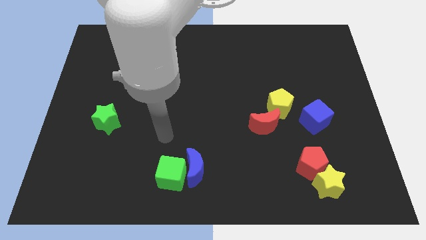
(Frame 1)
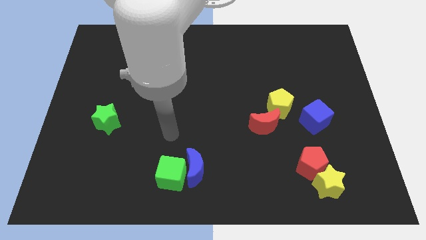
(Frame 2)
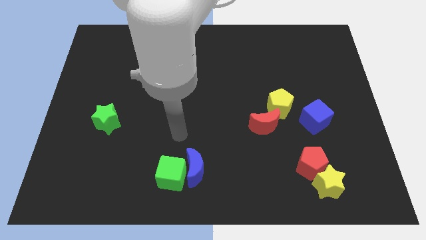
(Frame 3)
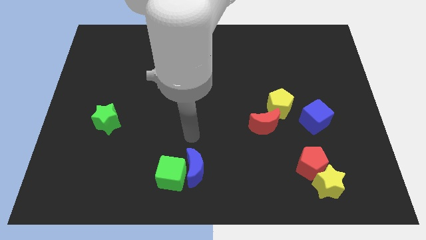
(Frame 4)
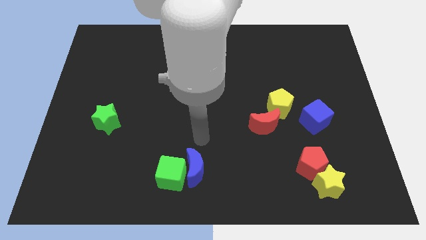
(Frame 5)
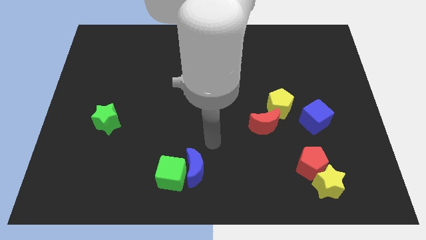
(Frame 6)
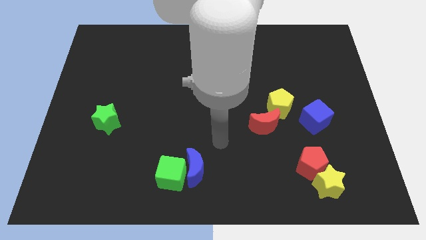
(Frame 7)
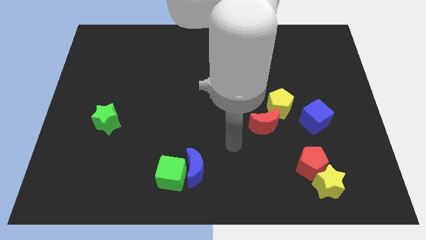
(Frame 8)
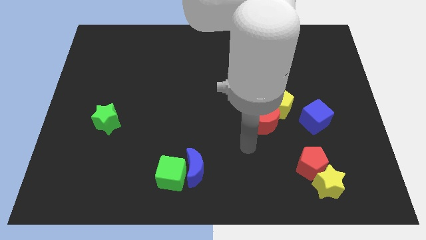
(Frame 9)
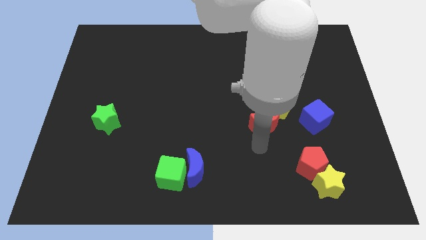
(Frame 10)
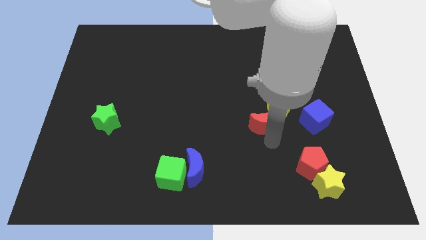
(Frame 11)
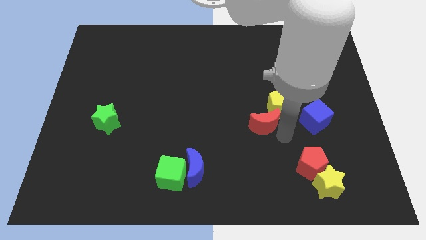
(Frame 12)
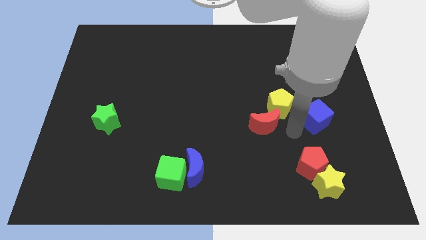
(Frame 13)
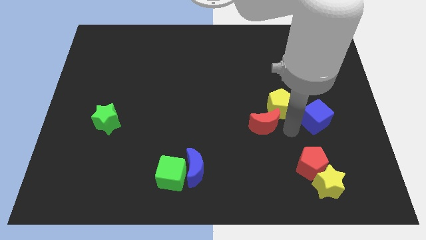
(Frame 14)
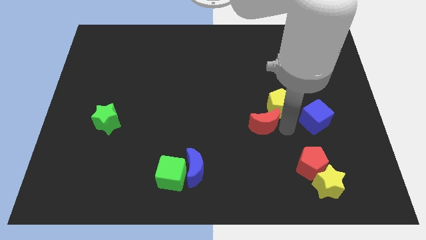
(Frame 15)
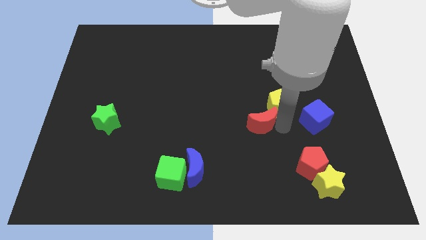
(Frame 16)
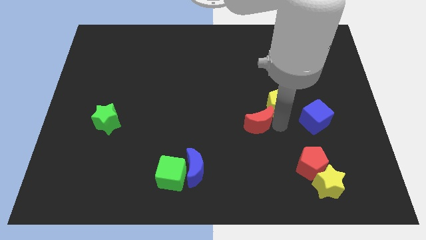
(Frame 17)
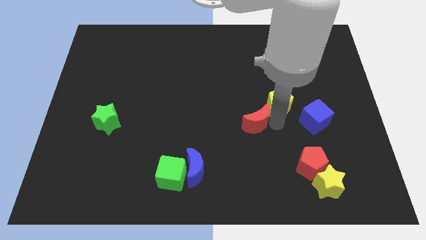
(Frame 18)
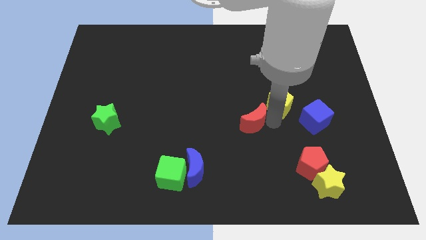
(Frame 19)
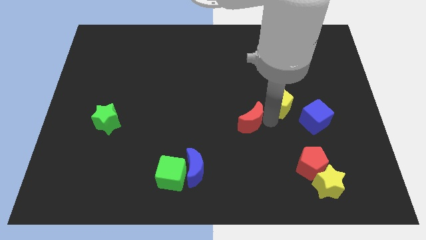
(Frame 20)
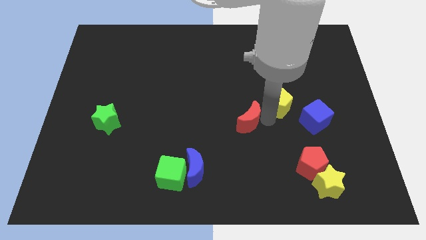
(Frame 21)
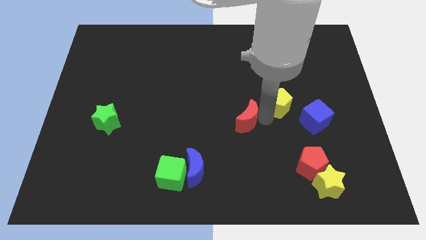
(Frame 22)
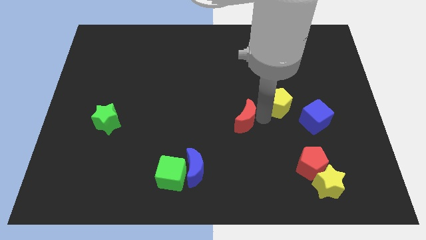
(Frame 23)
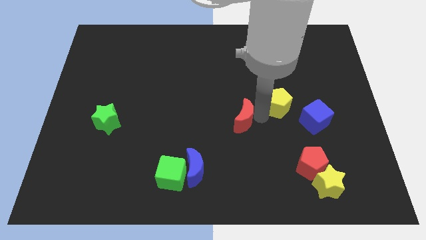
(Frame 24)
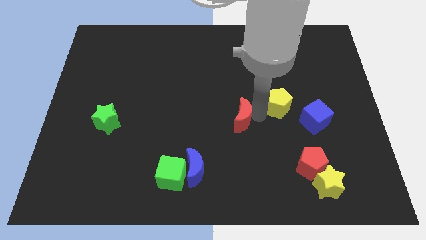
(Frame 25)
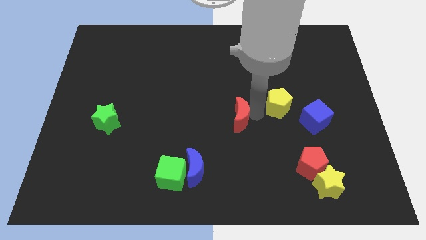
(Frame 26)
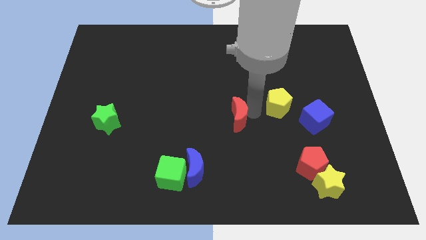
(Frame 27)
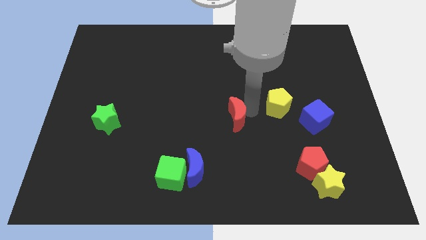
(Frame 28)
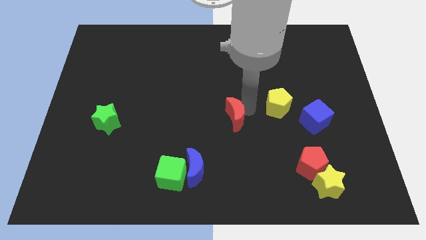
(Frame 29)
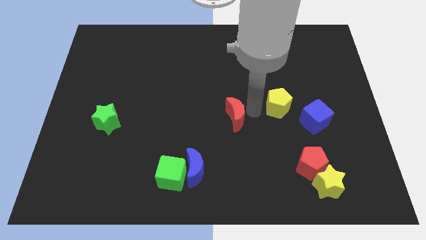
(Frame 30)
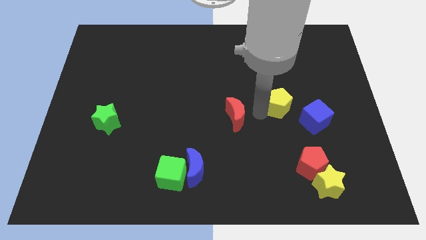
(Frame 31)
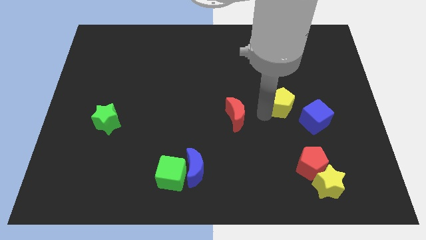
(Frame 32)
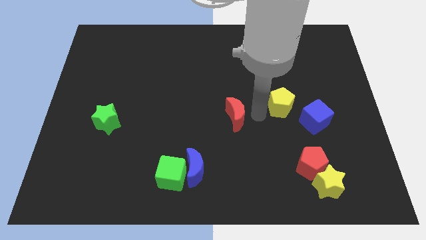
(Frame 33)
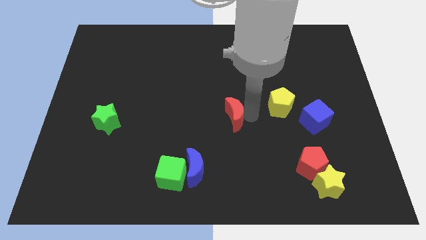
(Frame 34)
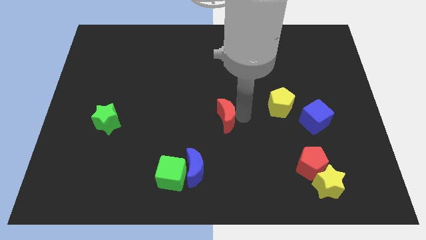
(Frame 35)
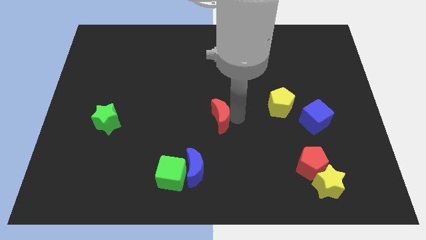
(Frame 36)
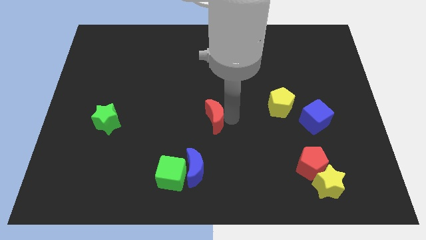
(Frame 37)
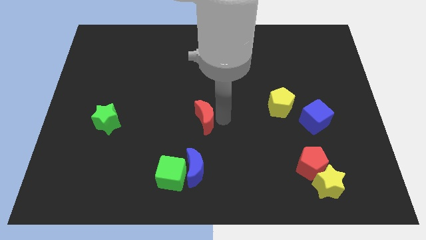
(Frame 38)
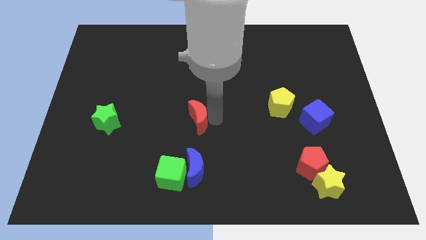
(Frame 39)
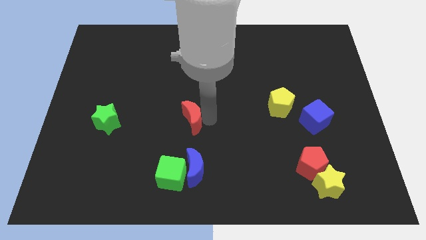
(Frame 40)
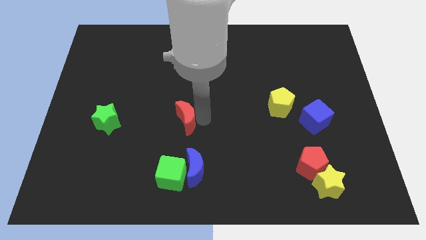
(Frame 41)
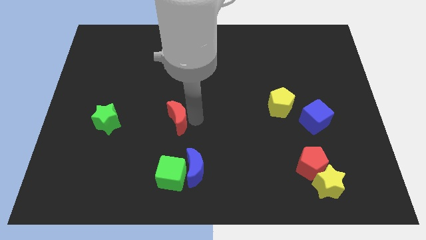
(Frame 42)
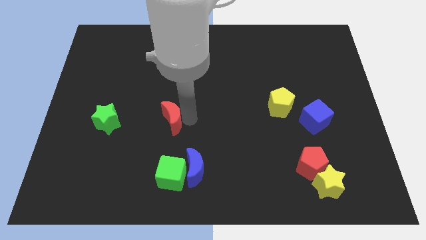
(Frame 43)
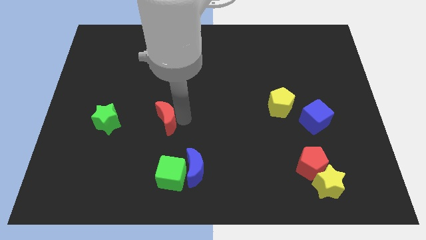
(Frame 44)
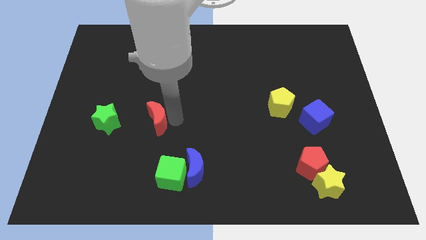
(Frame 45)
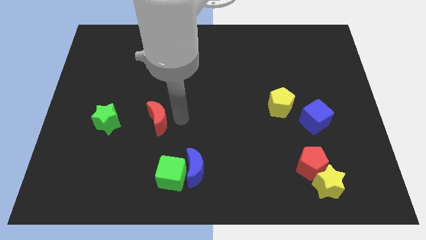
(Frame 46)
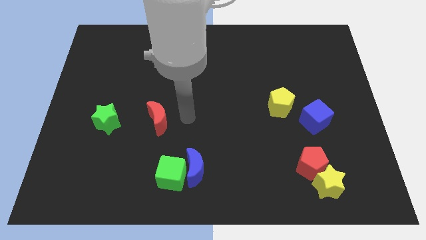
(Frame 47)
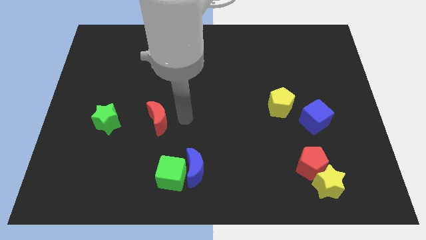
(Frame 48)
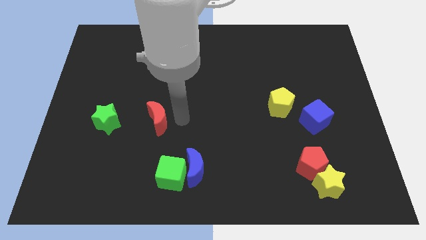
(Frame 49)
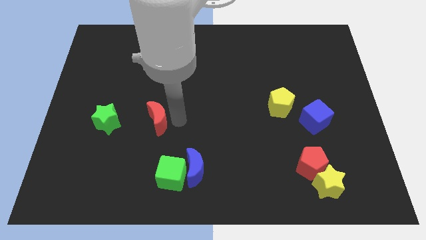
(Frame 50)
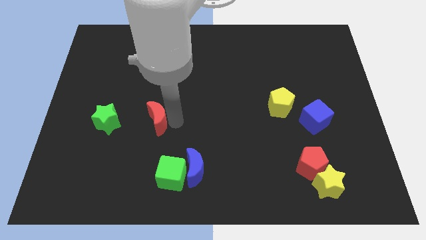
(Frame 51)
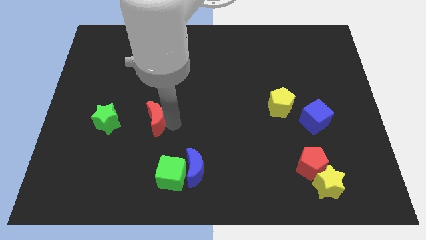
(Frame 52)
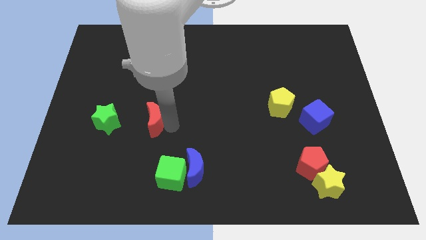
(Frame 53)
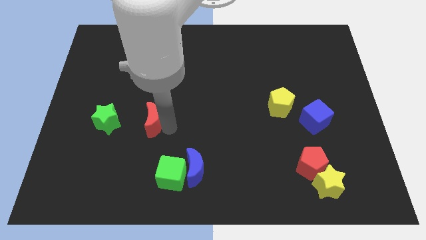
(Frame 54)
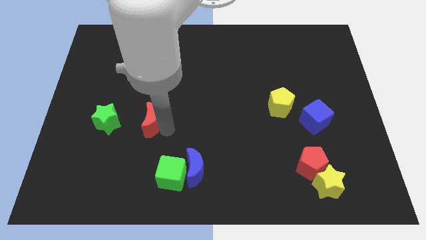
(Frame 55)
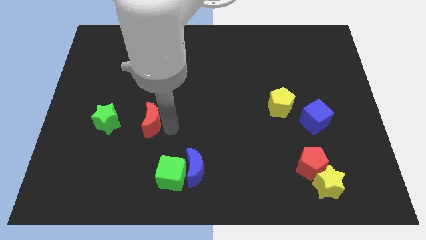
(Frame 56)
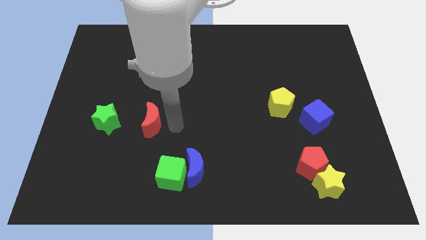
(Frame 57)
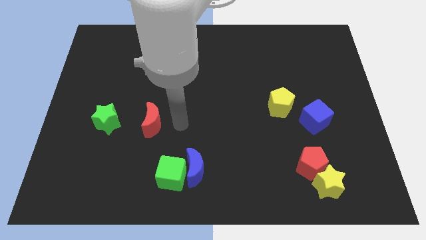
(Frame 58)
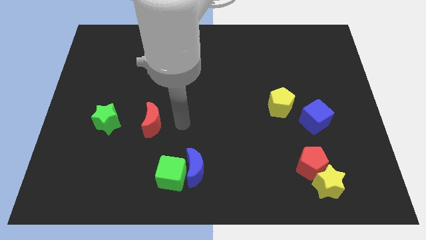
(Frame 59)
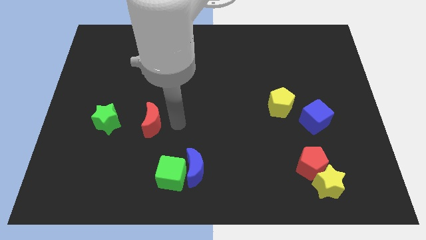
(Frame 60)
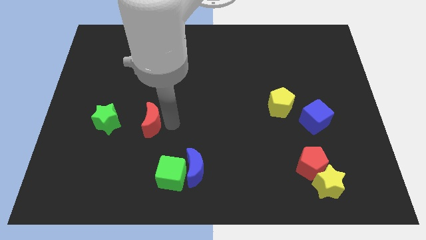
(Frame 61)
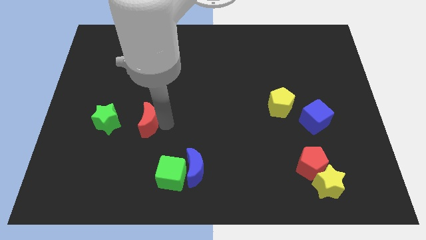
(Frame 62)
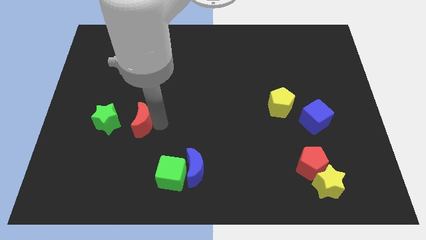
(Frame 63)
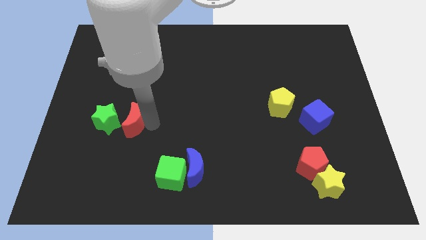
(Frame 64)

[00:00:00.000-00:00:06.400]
put the red moon towards the green star
